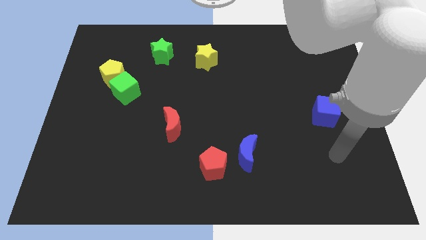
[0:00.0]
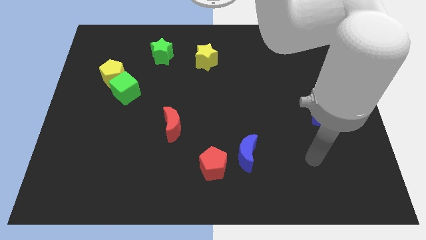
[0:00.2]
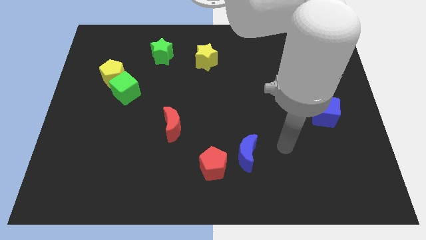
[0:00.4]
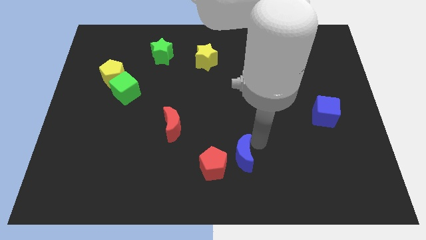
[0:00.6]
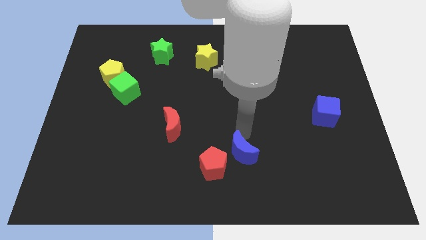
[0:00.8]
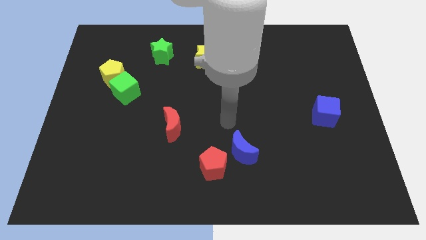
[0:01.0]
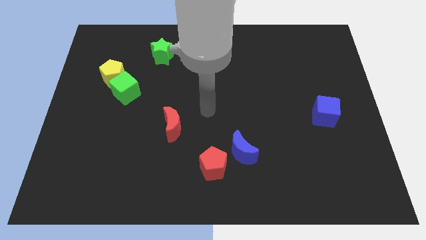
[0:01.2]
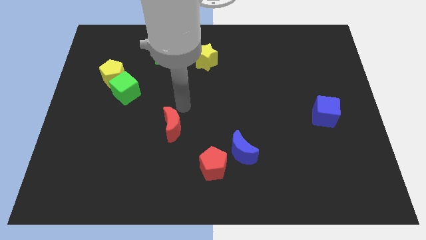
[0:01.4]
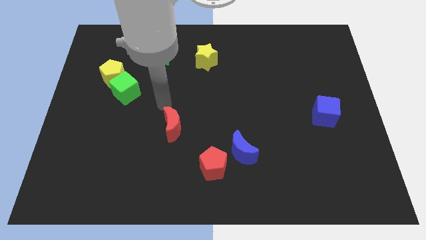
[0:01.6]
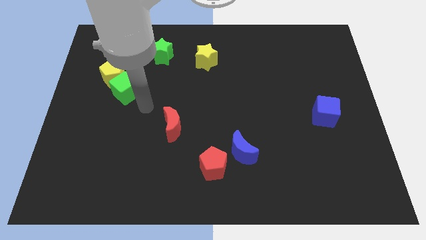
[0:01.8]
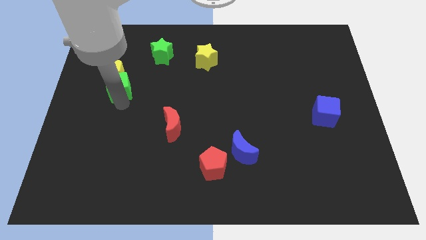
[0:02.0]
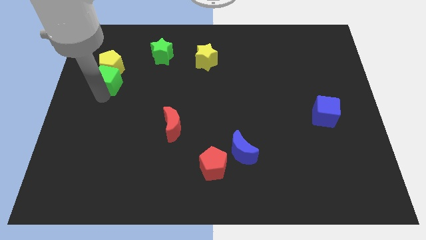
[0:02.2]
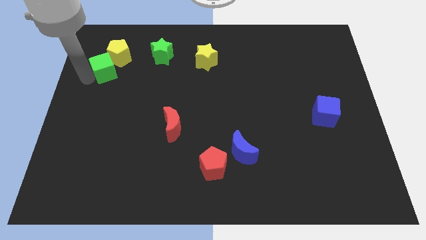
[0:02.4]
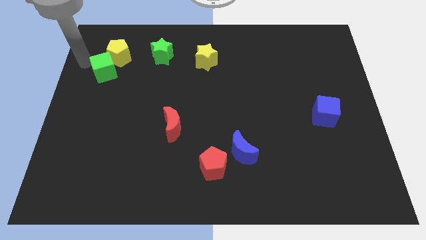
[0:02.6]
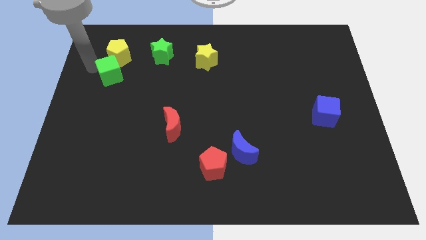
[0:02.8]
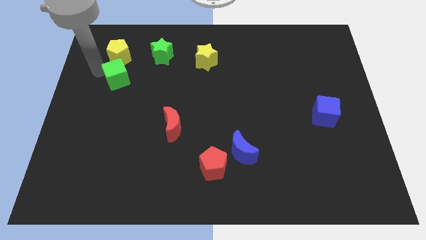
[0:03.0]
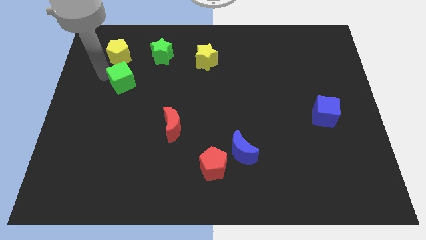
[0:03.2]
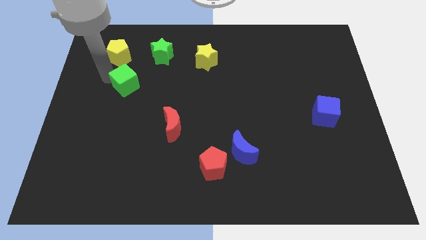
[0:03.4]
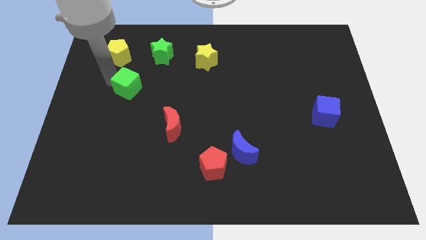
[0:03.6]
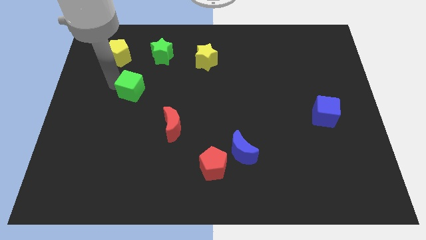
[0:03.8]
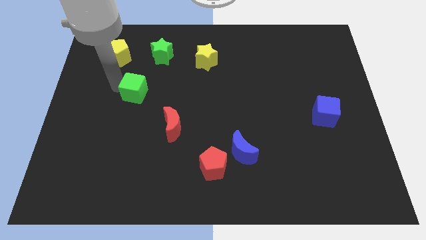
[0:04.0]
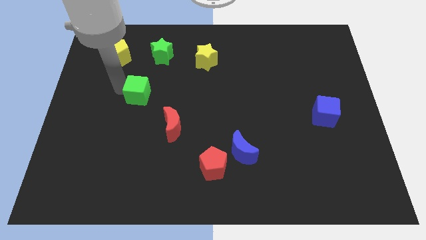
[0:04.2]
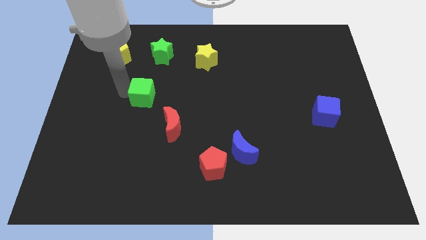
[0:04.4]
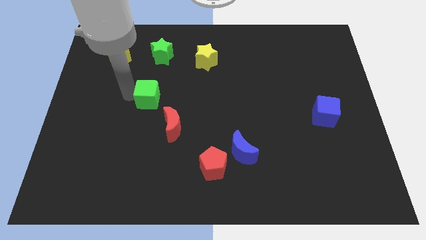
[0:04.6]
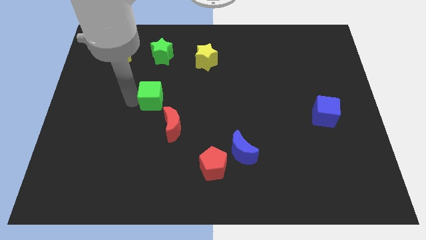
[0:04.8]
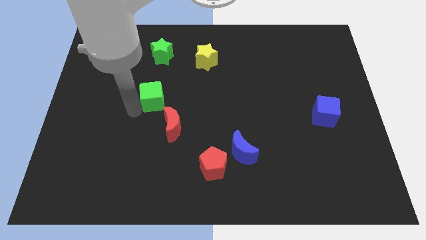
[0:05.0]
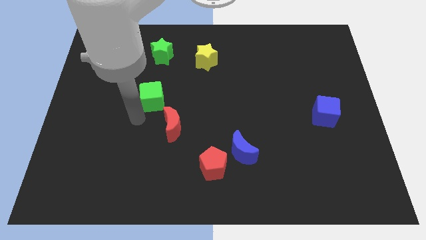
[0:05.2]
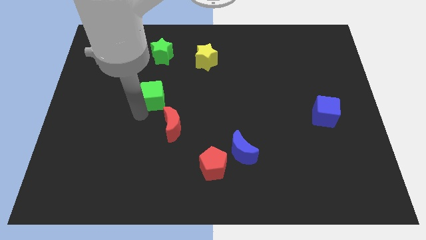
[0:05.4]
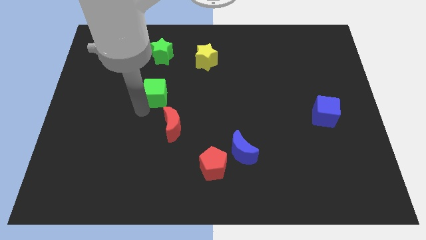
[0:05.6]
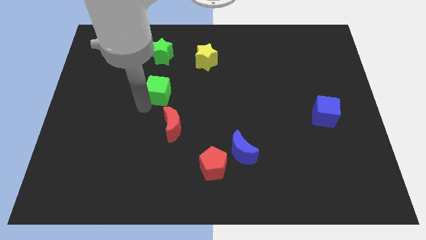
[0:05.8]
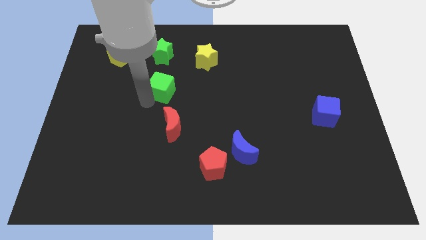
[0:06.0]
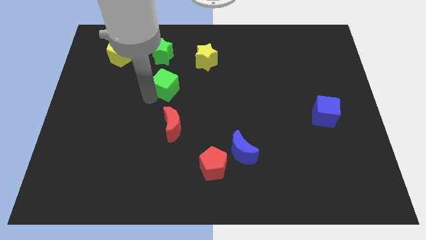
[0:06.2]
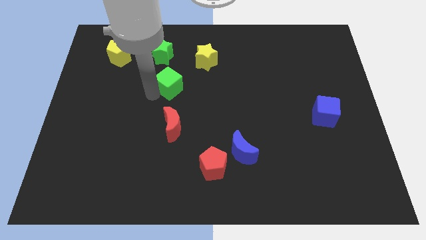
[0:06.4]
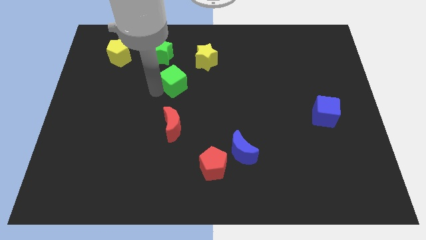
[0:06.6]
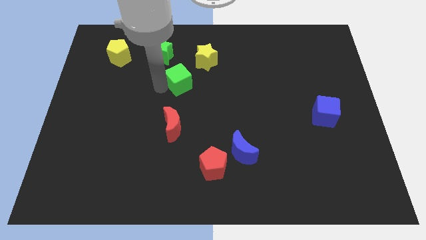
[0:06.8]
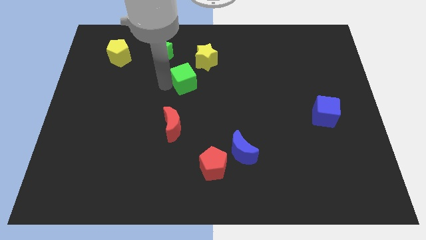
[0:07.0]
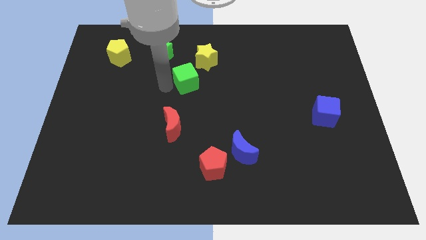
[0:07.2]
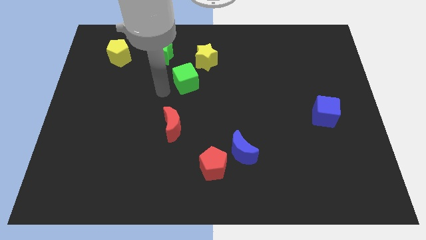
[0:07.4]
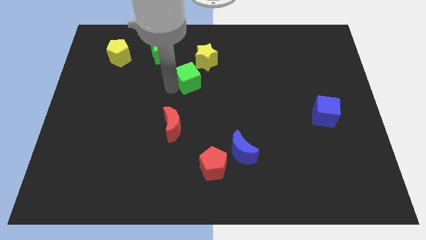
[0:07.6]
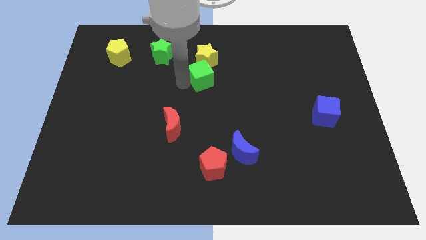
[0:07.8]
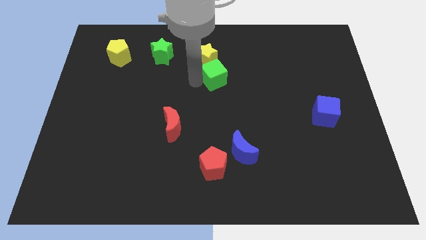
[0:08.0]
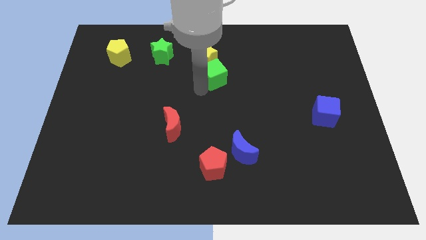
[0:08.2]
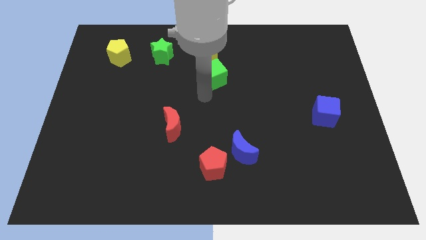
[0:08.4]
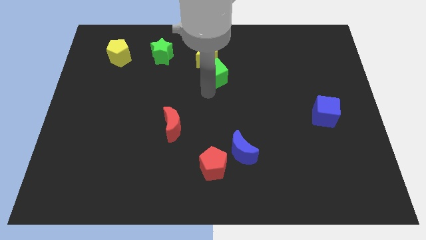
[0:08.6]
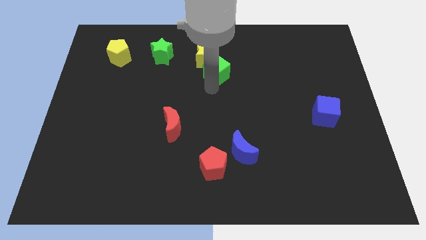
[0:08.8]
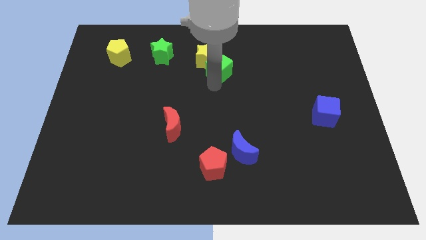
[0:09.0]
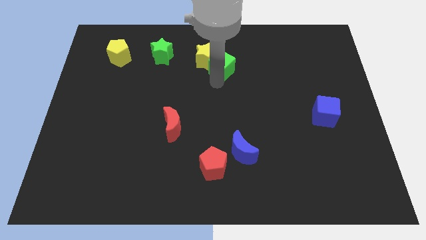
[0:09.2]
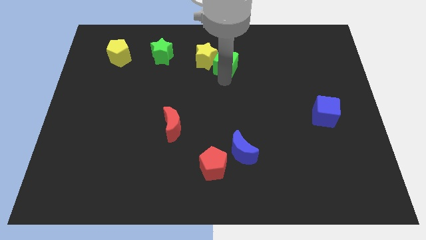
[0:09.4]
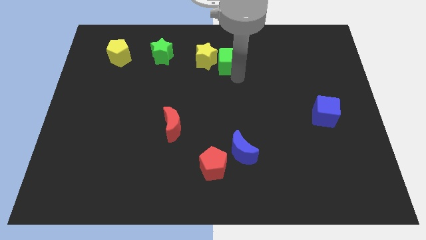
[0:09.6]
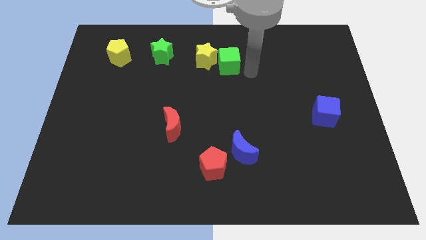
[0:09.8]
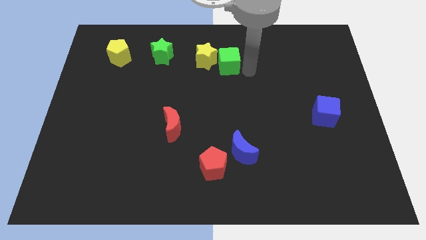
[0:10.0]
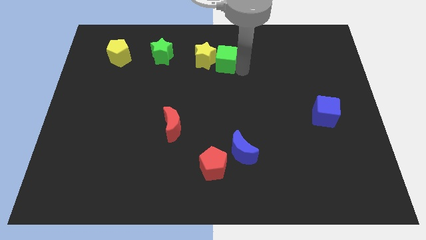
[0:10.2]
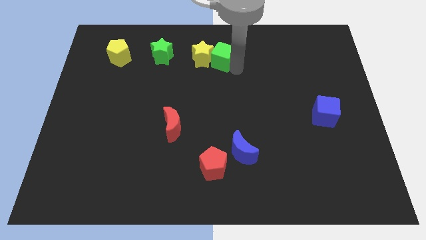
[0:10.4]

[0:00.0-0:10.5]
push the green cube just right of the green star

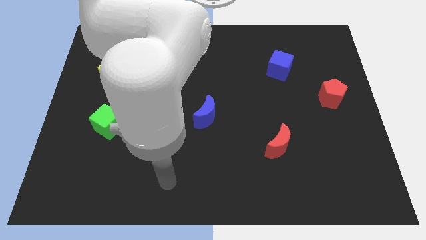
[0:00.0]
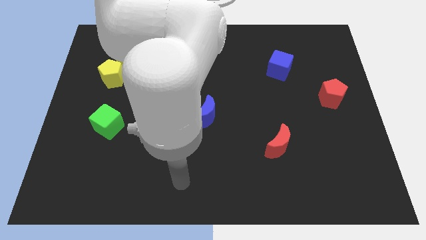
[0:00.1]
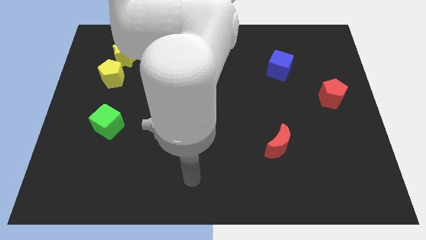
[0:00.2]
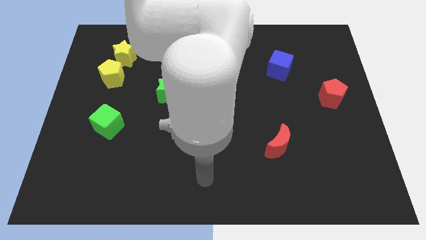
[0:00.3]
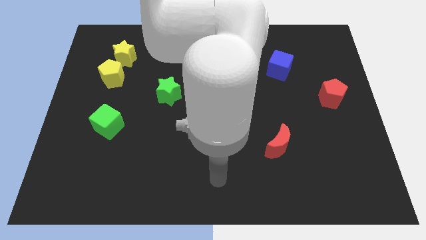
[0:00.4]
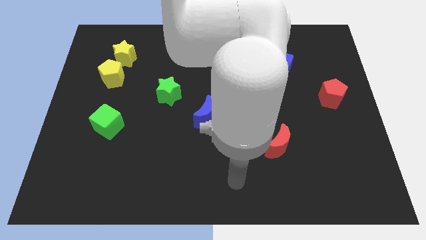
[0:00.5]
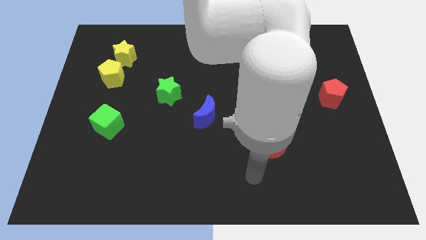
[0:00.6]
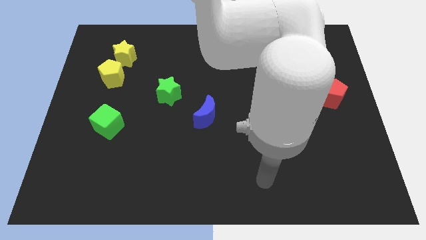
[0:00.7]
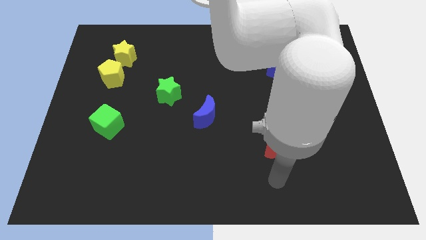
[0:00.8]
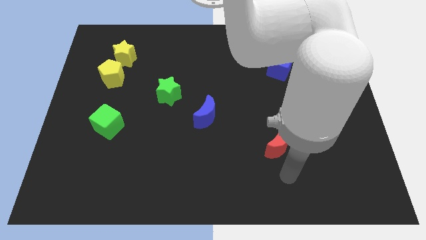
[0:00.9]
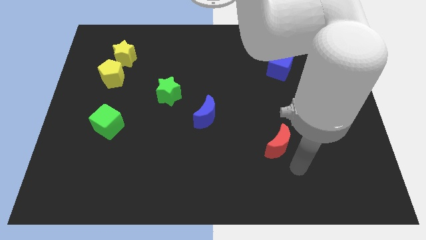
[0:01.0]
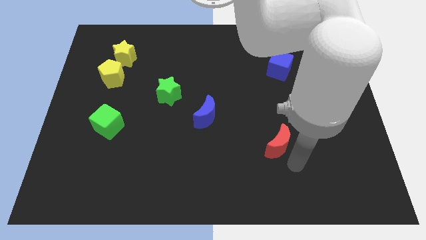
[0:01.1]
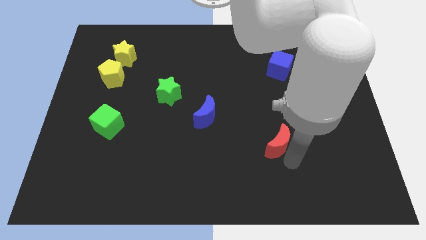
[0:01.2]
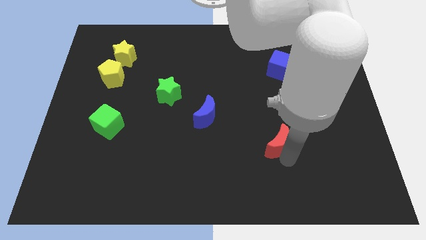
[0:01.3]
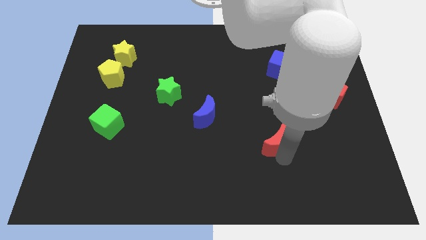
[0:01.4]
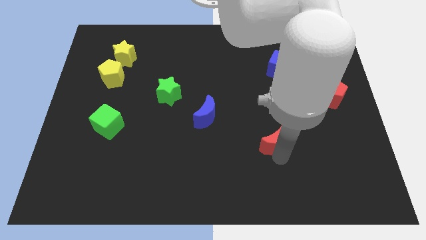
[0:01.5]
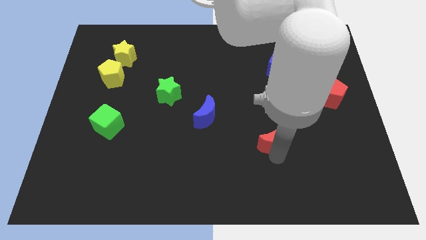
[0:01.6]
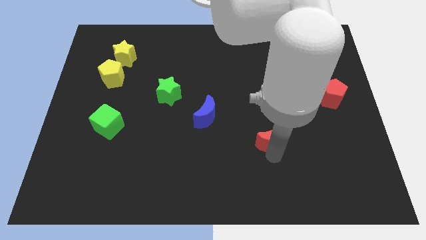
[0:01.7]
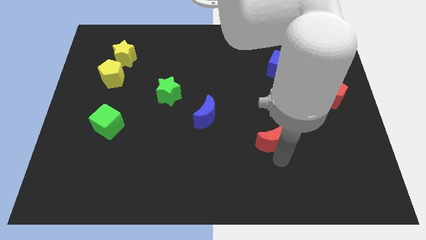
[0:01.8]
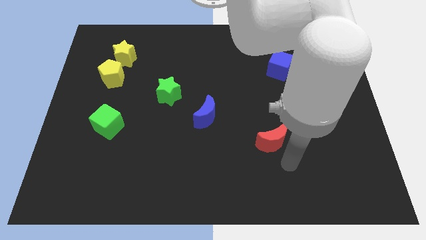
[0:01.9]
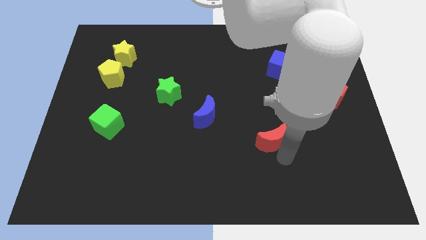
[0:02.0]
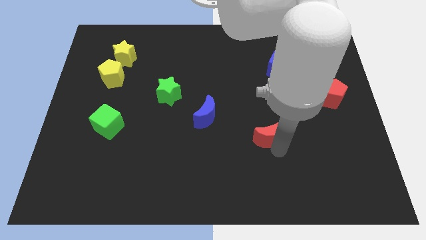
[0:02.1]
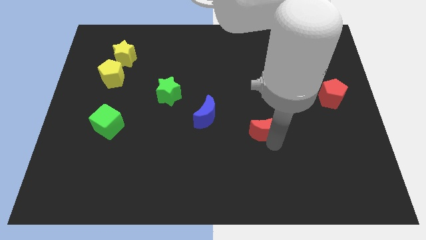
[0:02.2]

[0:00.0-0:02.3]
move the red moon just right of the blue moon
